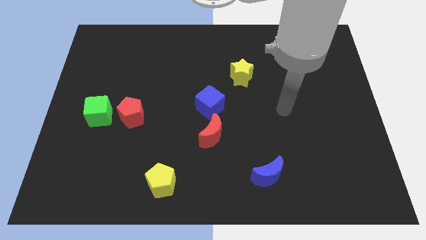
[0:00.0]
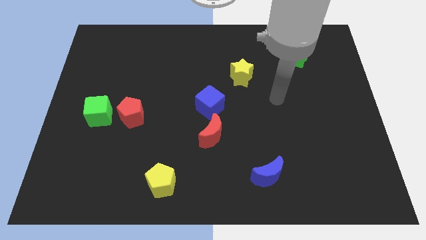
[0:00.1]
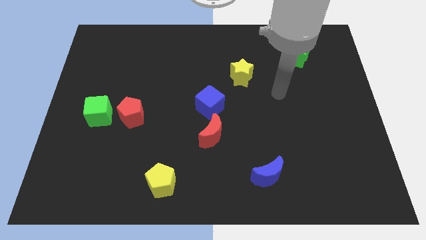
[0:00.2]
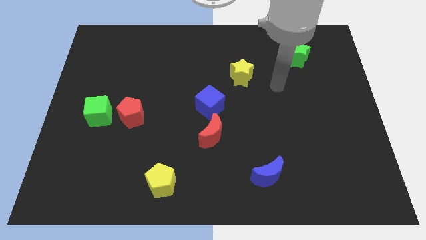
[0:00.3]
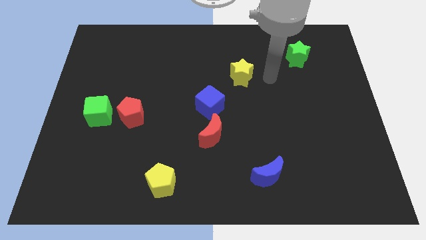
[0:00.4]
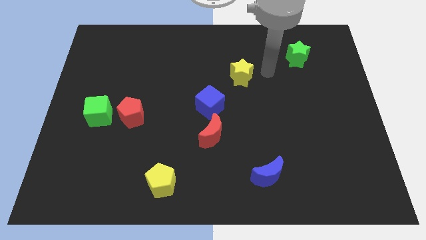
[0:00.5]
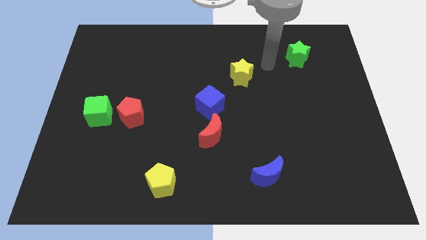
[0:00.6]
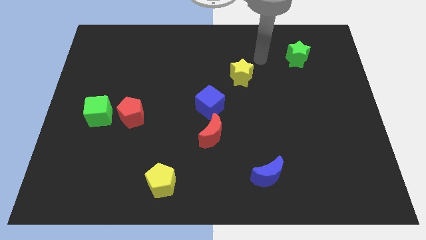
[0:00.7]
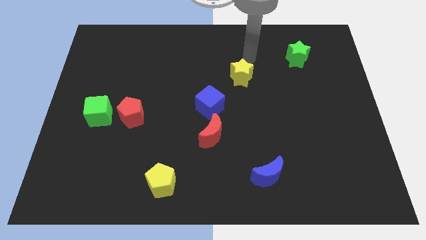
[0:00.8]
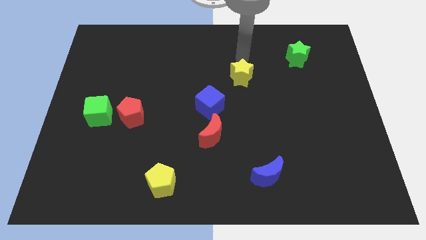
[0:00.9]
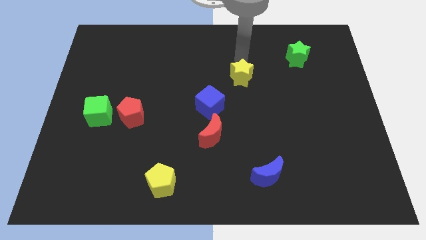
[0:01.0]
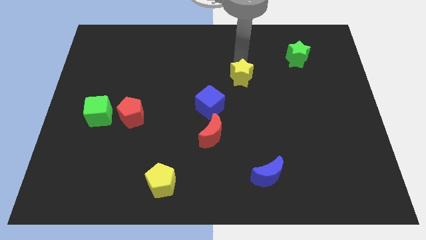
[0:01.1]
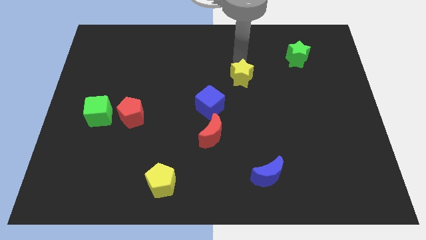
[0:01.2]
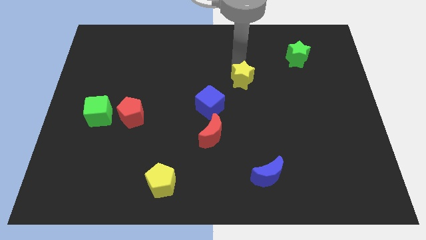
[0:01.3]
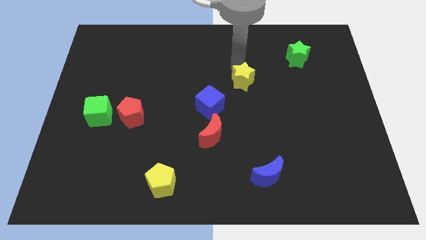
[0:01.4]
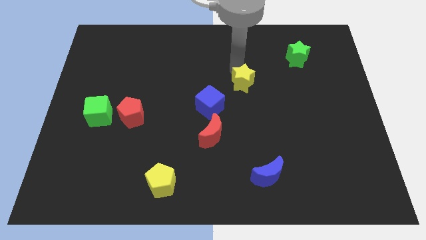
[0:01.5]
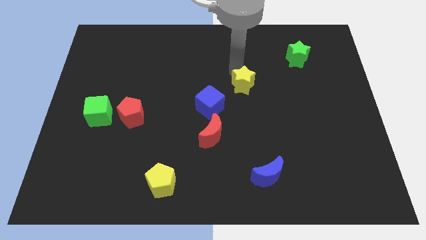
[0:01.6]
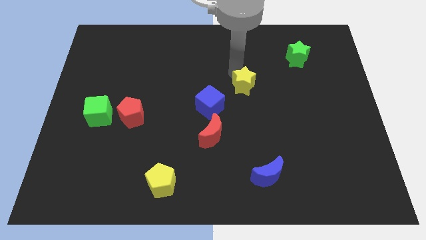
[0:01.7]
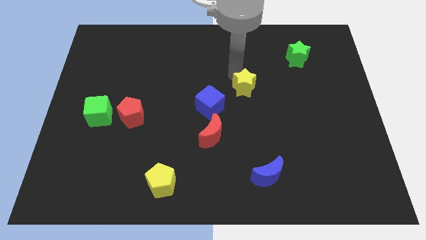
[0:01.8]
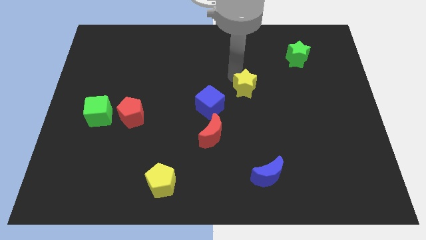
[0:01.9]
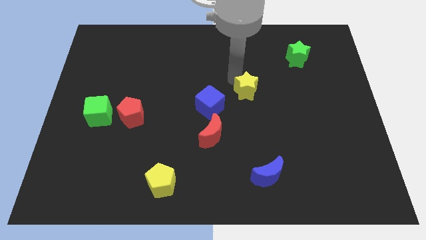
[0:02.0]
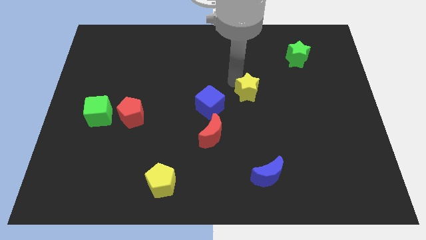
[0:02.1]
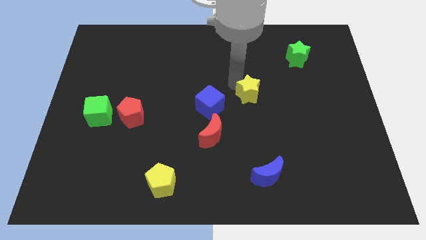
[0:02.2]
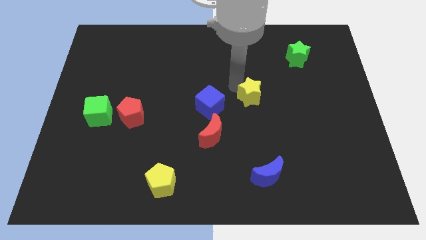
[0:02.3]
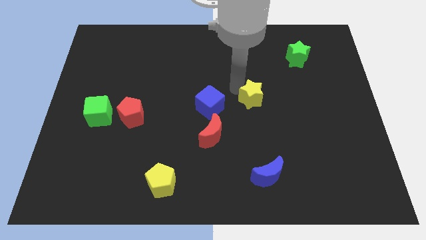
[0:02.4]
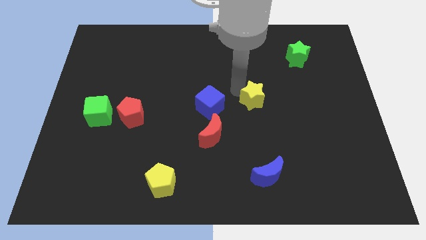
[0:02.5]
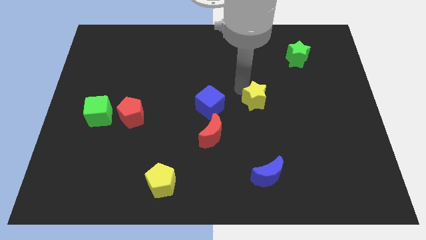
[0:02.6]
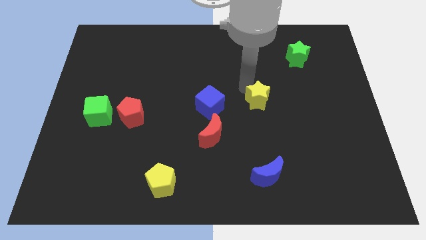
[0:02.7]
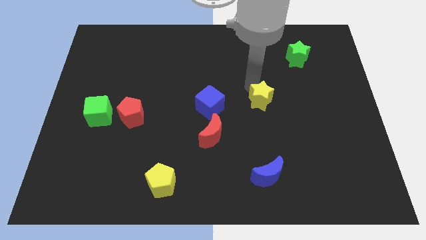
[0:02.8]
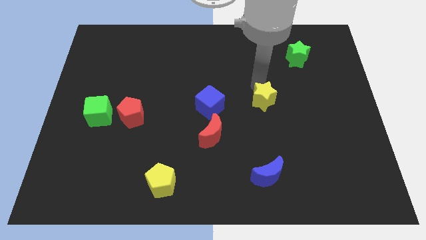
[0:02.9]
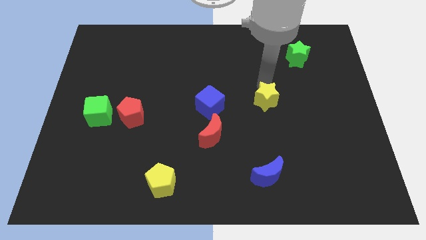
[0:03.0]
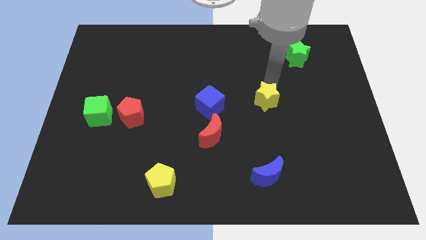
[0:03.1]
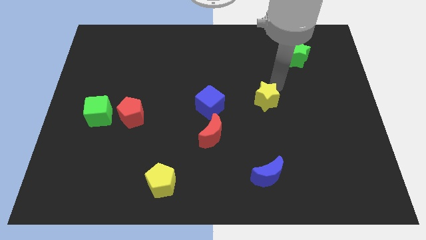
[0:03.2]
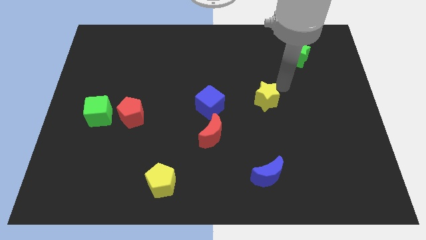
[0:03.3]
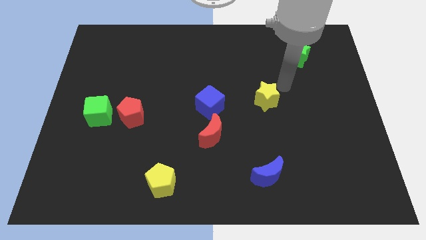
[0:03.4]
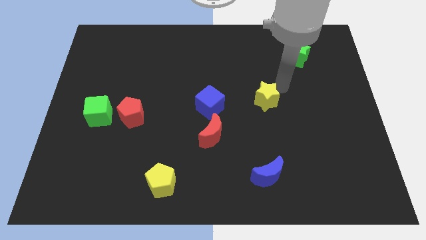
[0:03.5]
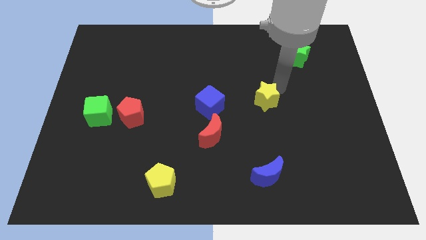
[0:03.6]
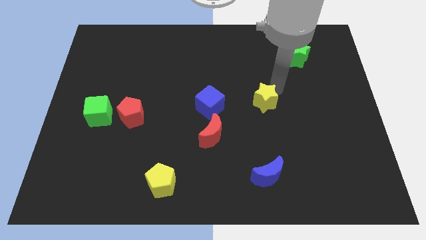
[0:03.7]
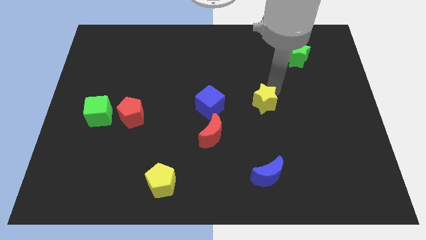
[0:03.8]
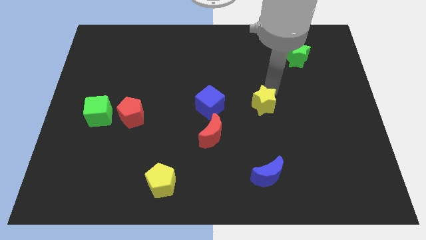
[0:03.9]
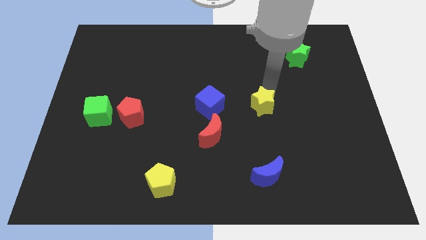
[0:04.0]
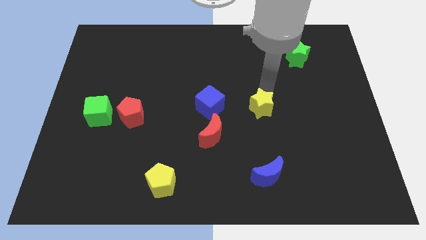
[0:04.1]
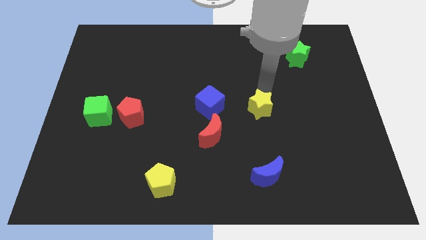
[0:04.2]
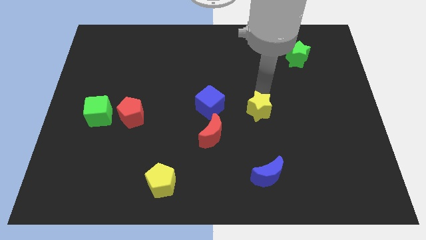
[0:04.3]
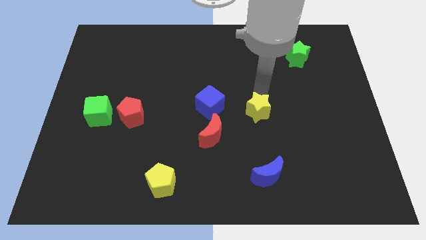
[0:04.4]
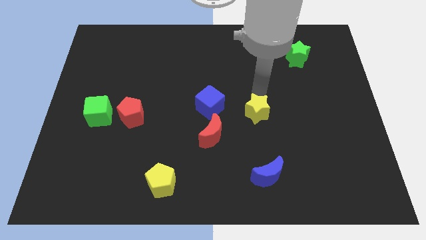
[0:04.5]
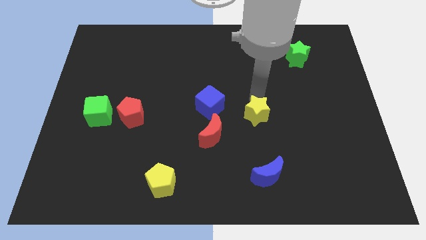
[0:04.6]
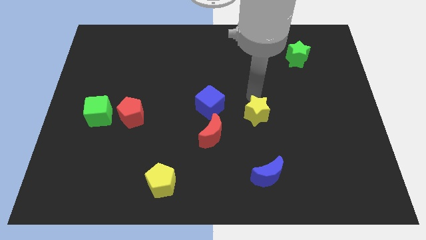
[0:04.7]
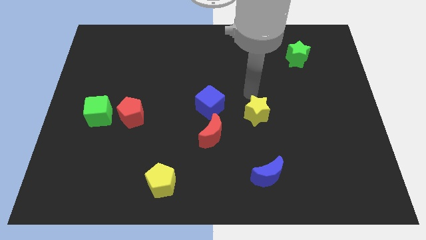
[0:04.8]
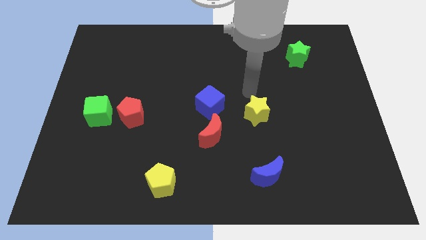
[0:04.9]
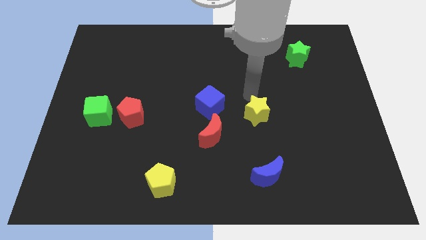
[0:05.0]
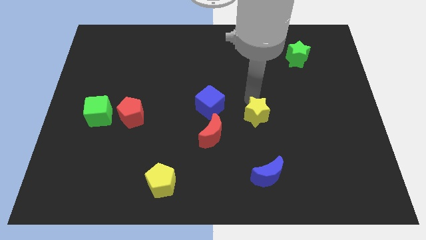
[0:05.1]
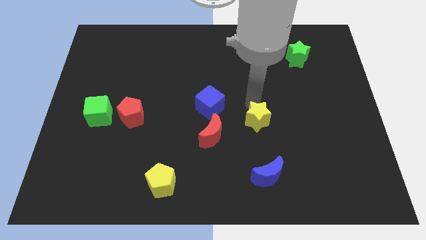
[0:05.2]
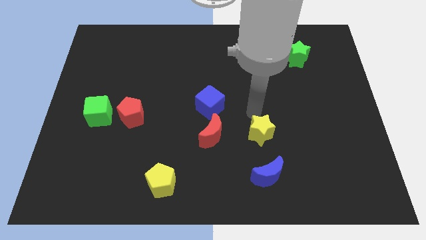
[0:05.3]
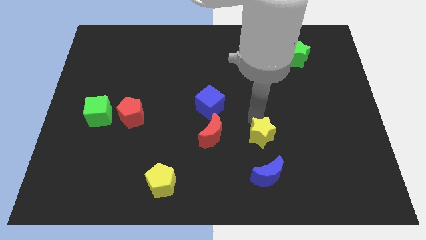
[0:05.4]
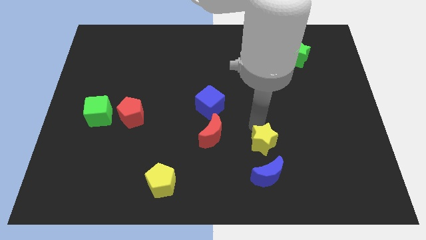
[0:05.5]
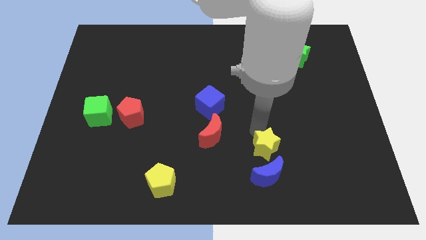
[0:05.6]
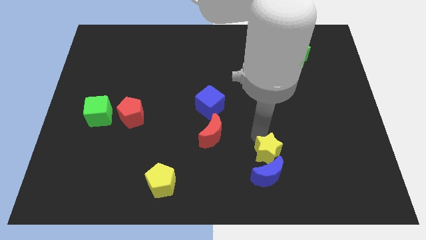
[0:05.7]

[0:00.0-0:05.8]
slide the yellow star close to the blue moon
